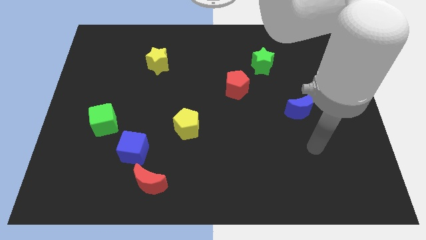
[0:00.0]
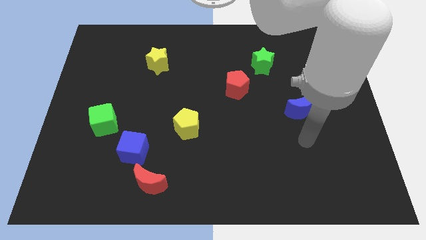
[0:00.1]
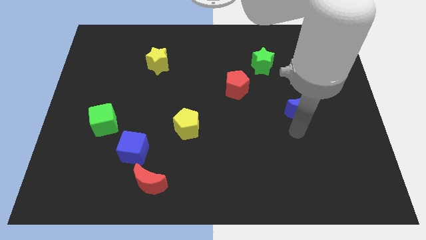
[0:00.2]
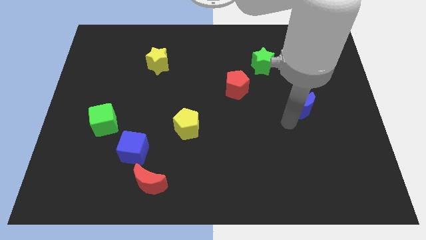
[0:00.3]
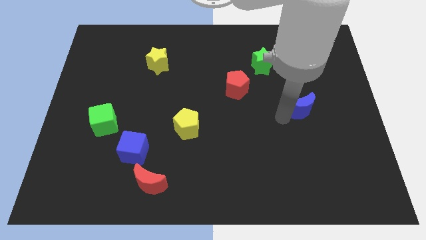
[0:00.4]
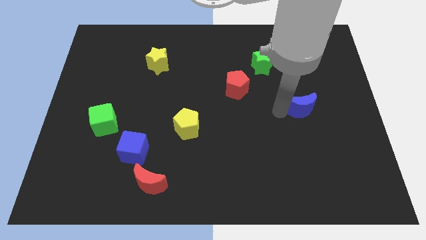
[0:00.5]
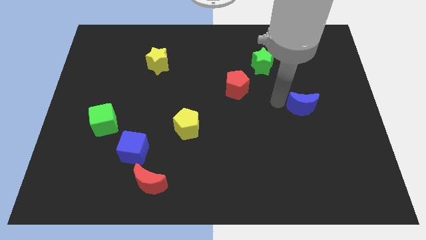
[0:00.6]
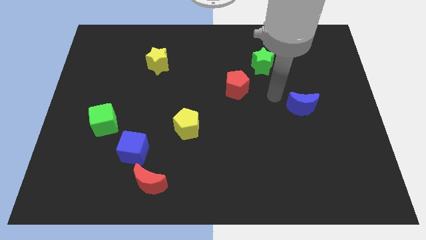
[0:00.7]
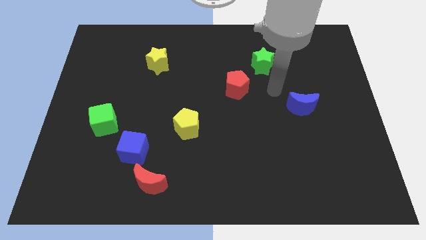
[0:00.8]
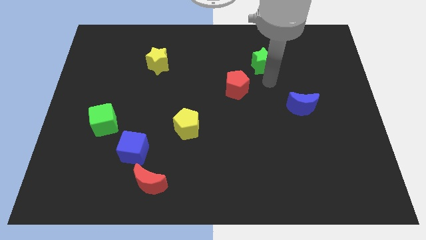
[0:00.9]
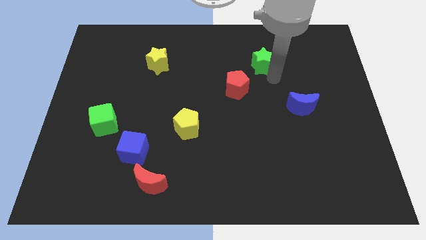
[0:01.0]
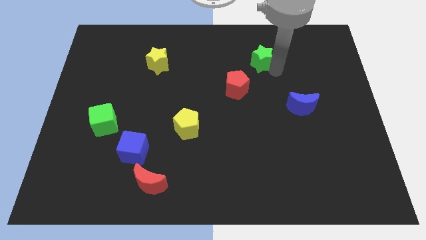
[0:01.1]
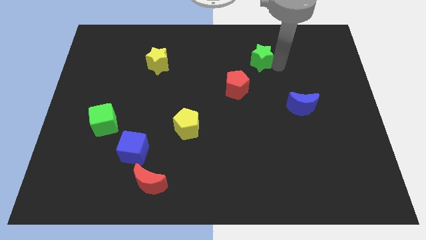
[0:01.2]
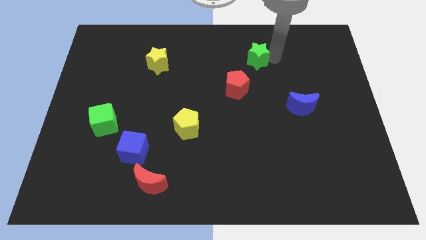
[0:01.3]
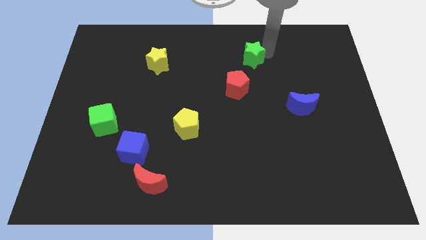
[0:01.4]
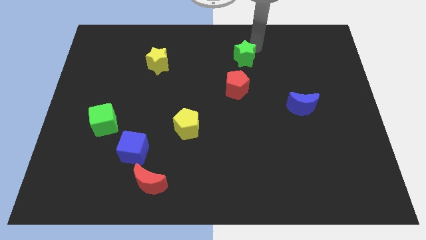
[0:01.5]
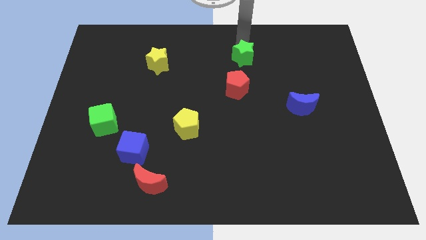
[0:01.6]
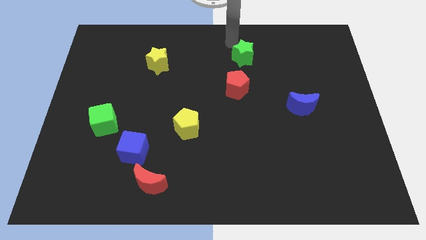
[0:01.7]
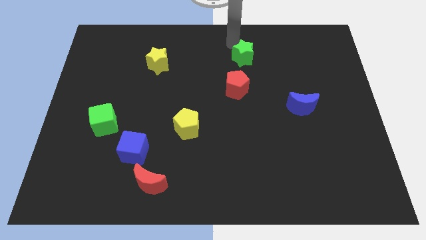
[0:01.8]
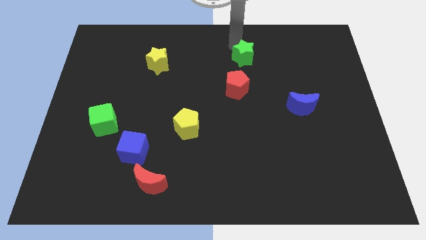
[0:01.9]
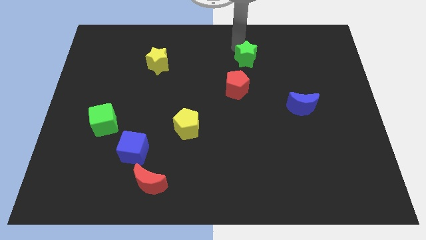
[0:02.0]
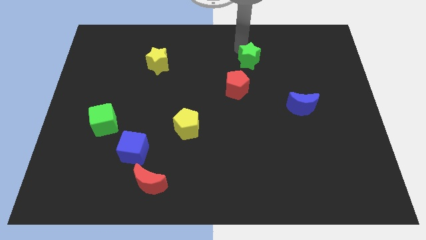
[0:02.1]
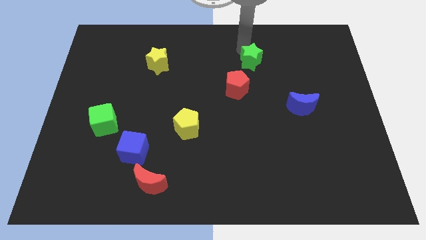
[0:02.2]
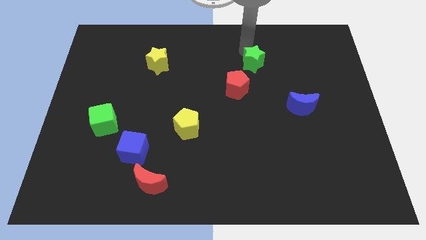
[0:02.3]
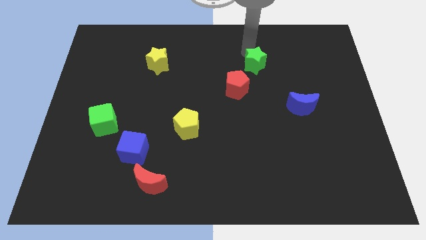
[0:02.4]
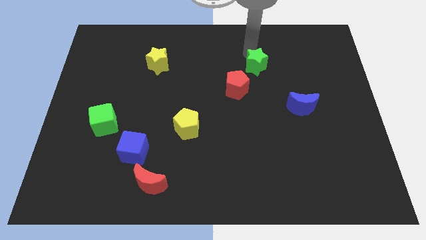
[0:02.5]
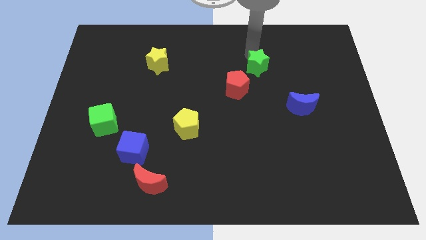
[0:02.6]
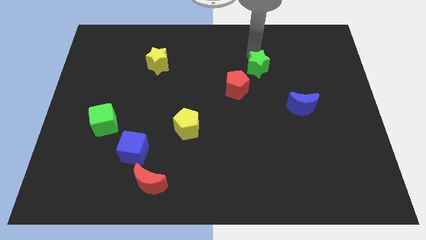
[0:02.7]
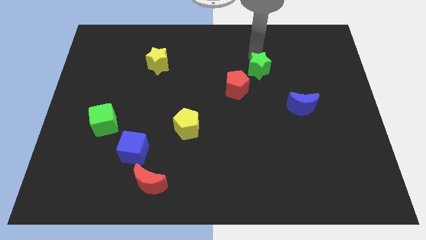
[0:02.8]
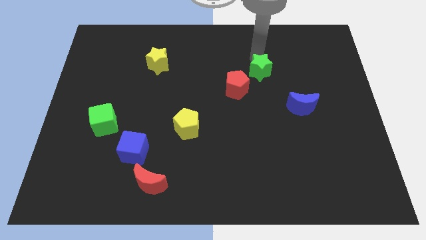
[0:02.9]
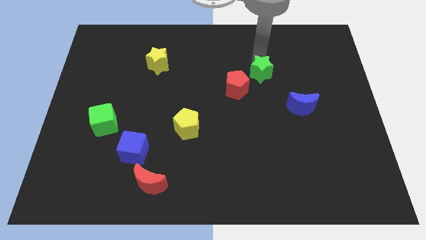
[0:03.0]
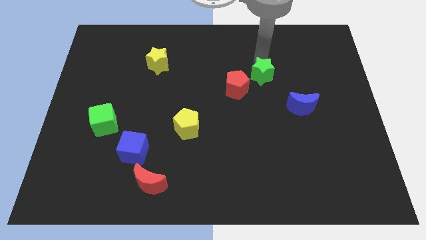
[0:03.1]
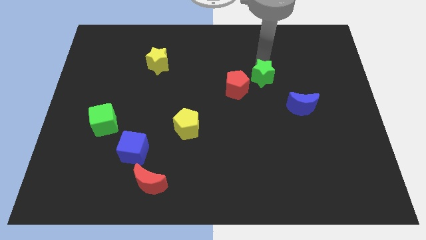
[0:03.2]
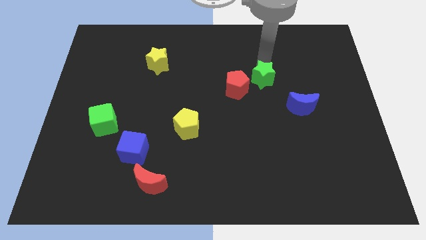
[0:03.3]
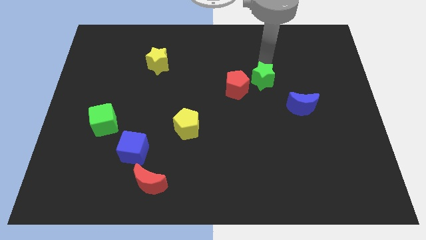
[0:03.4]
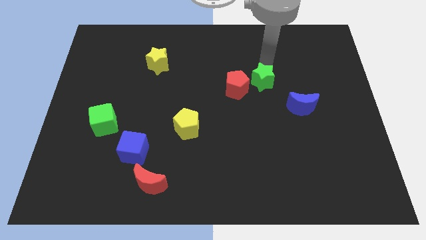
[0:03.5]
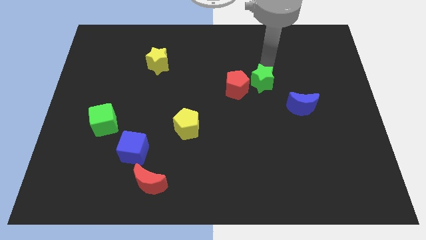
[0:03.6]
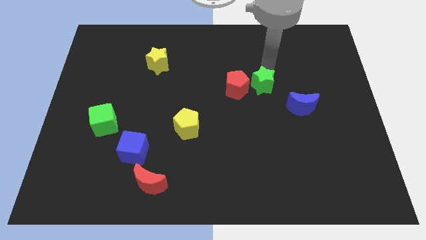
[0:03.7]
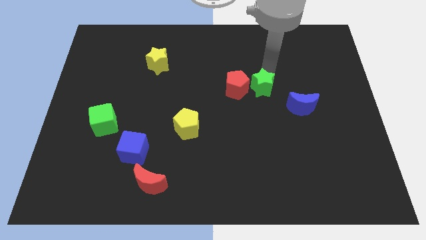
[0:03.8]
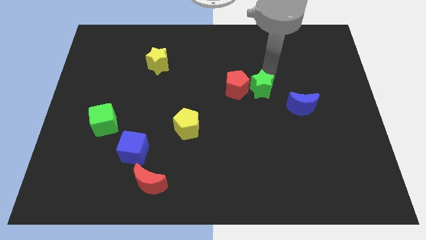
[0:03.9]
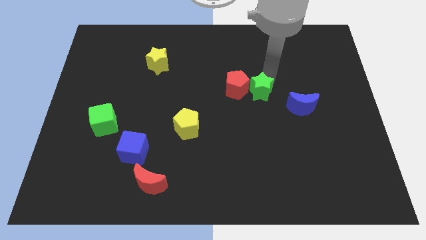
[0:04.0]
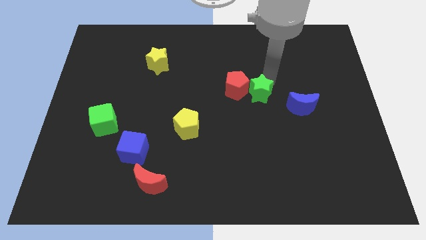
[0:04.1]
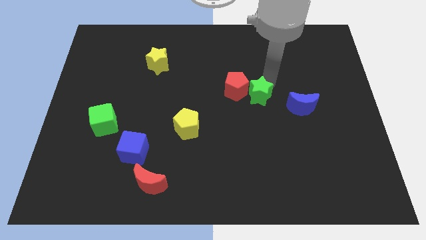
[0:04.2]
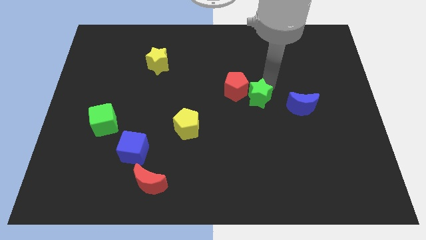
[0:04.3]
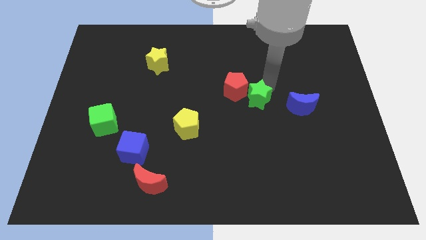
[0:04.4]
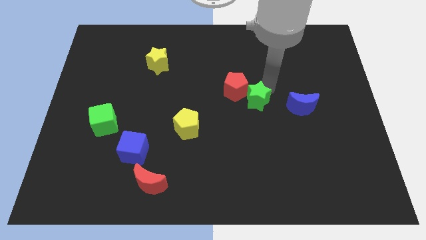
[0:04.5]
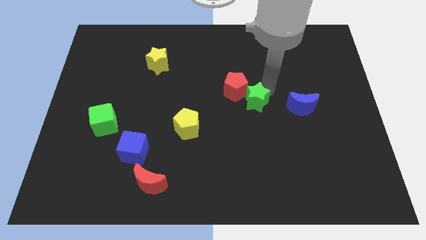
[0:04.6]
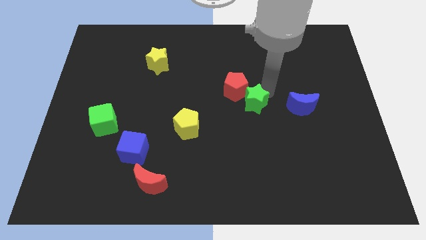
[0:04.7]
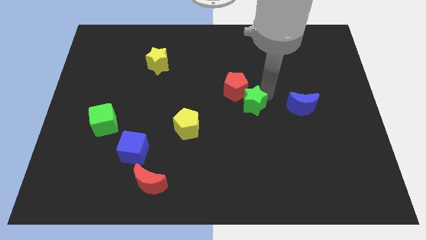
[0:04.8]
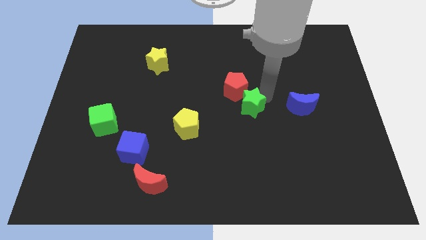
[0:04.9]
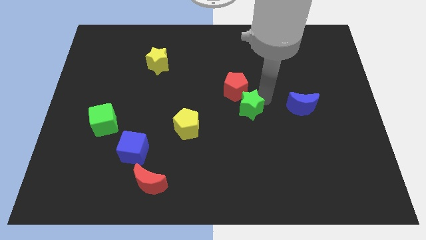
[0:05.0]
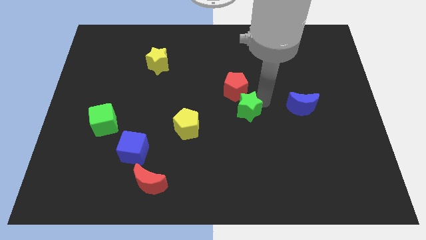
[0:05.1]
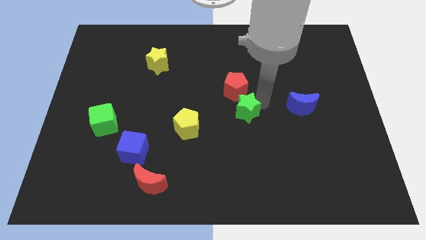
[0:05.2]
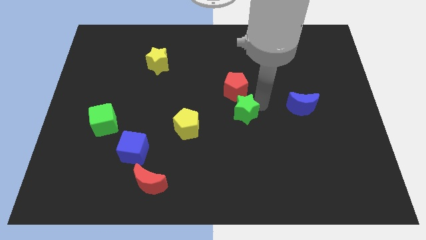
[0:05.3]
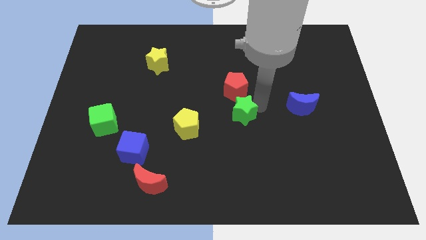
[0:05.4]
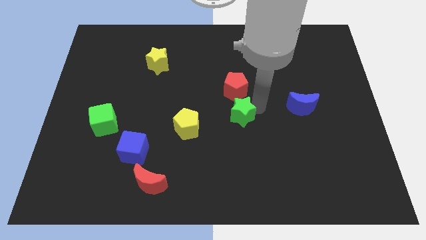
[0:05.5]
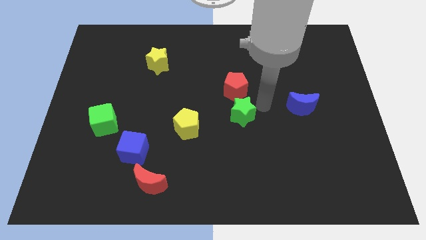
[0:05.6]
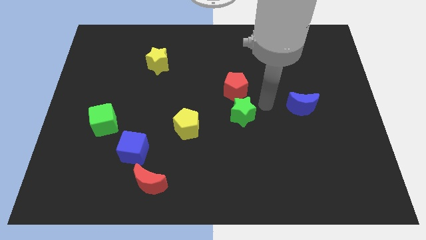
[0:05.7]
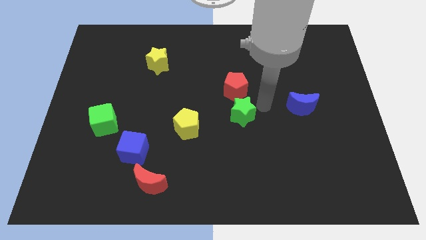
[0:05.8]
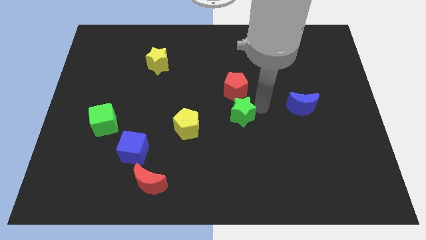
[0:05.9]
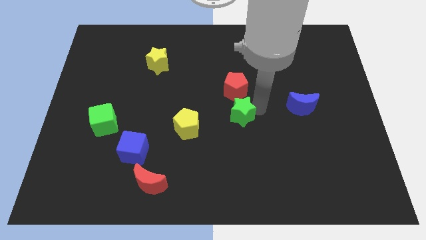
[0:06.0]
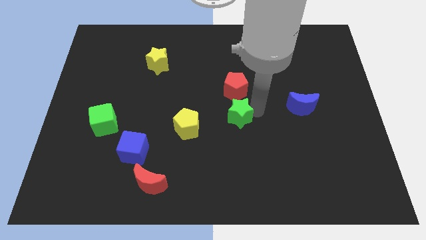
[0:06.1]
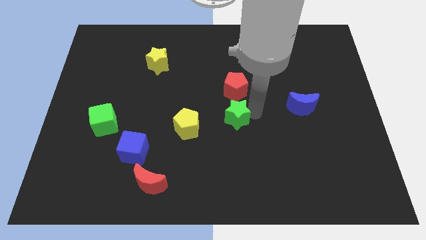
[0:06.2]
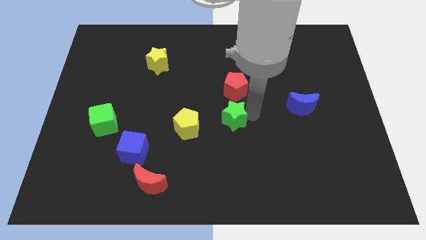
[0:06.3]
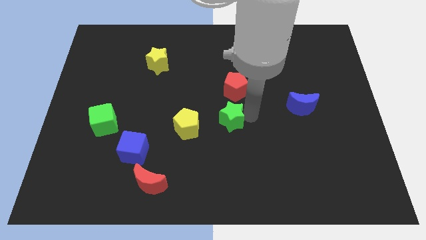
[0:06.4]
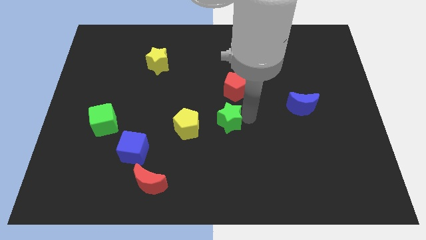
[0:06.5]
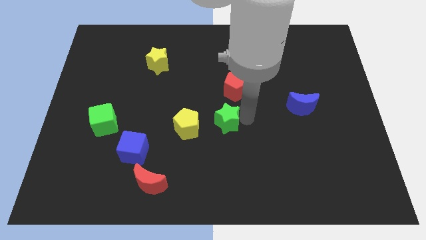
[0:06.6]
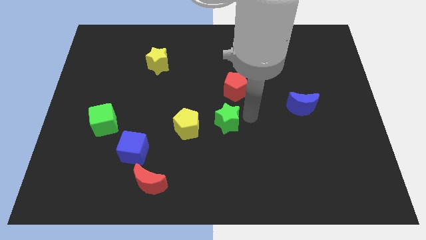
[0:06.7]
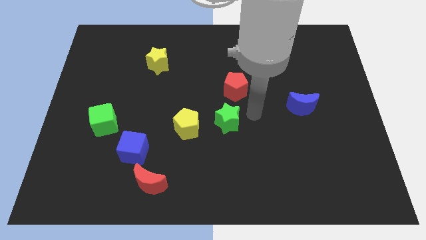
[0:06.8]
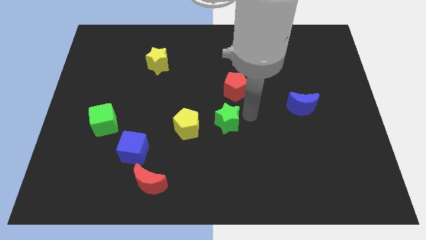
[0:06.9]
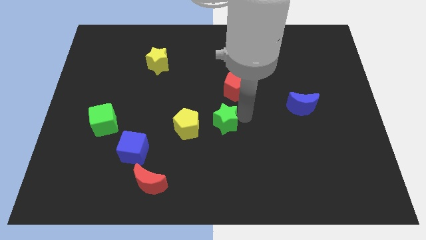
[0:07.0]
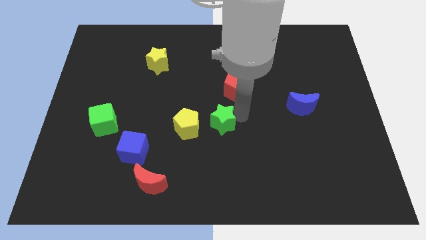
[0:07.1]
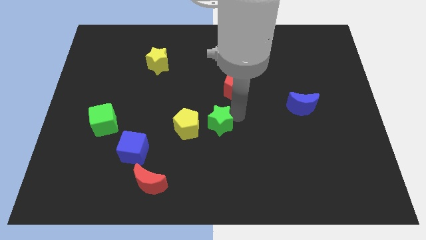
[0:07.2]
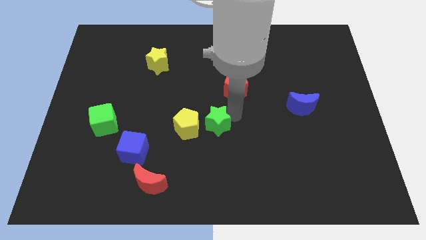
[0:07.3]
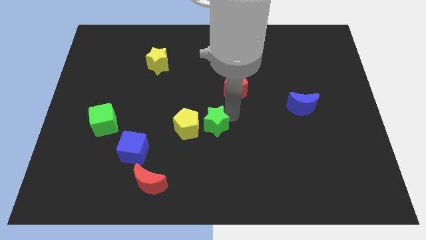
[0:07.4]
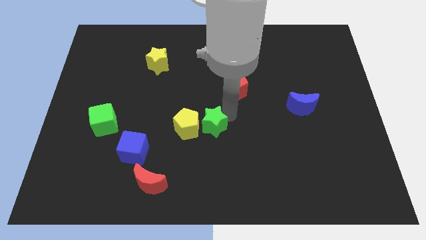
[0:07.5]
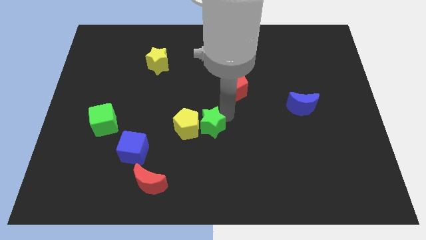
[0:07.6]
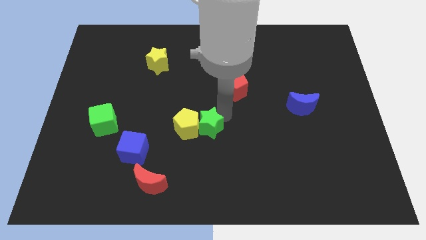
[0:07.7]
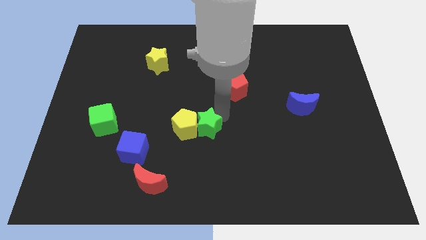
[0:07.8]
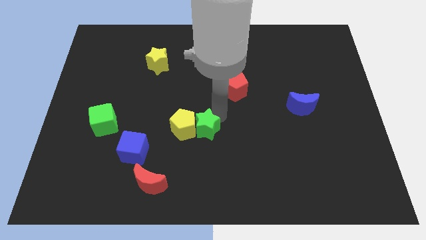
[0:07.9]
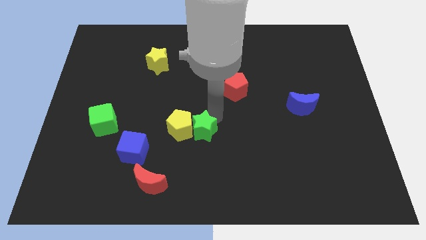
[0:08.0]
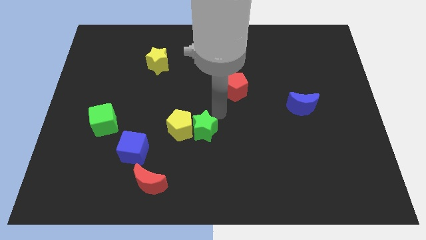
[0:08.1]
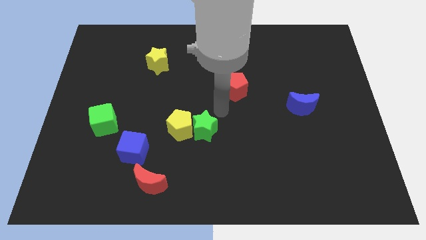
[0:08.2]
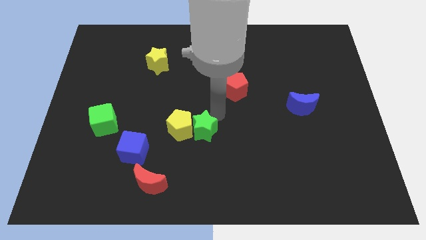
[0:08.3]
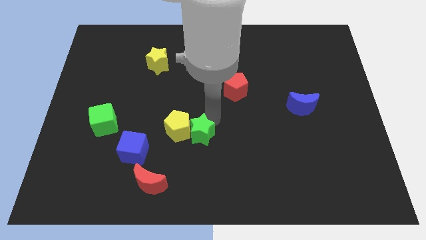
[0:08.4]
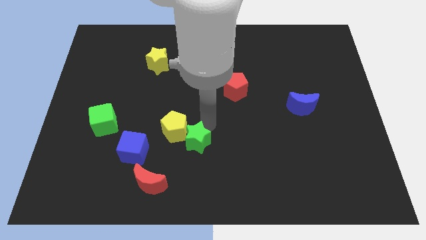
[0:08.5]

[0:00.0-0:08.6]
push the green star just right of the blue cube
